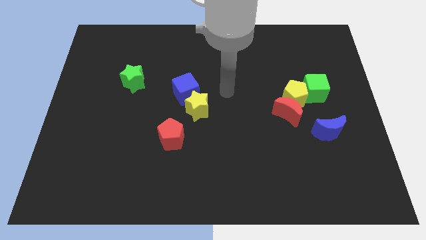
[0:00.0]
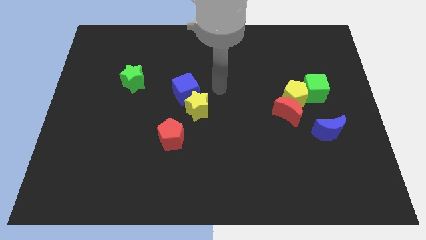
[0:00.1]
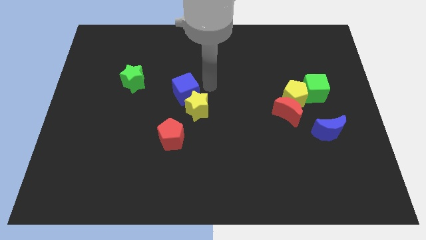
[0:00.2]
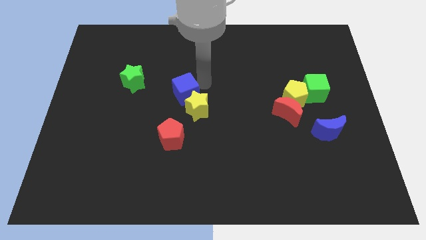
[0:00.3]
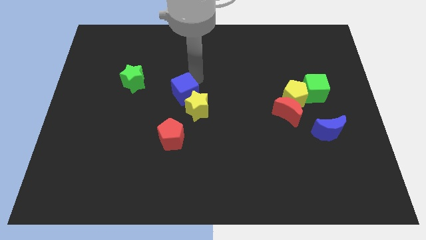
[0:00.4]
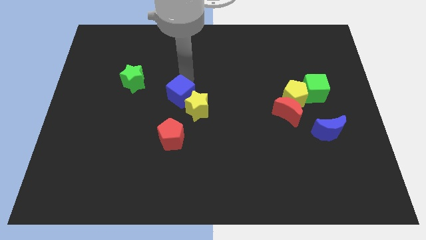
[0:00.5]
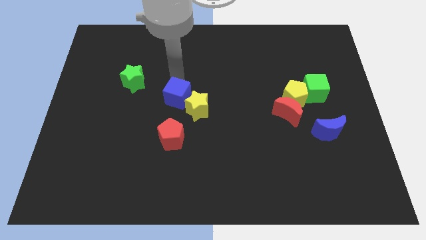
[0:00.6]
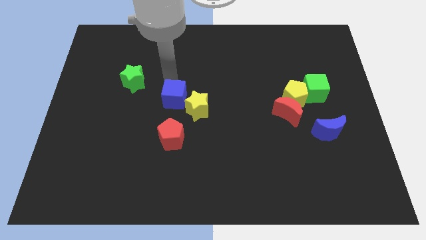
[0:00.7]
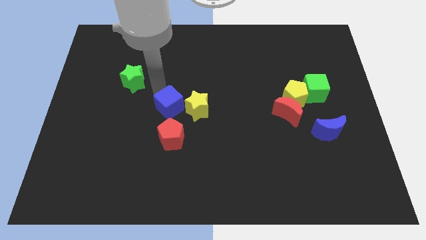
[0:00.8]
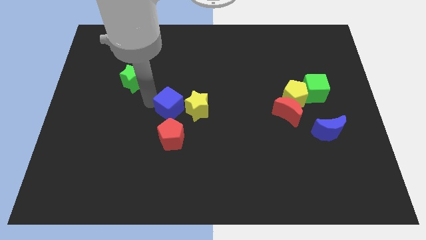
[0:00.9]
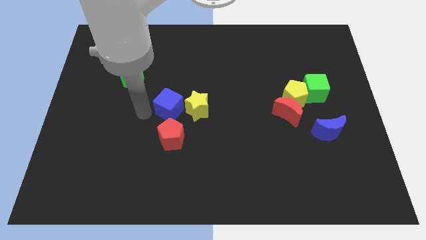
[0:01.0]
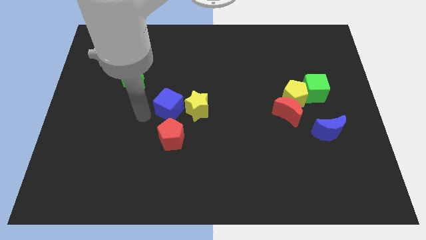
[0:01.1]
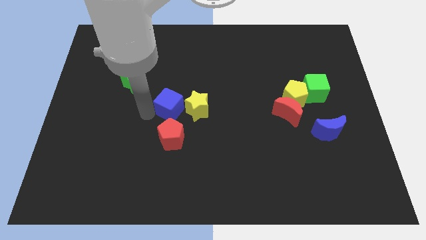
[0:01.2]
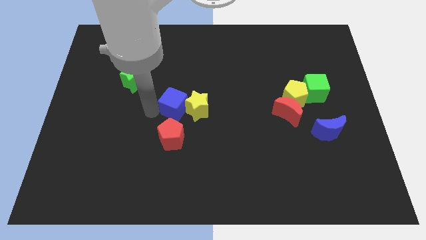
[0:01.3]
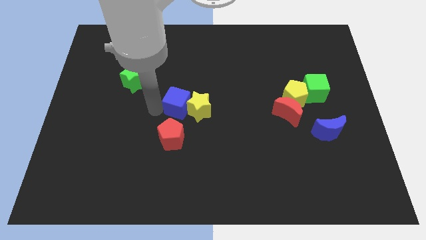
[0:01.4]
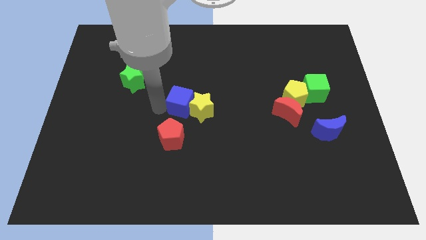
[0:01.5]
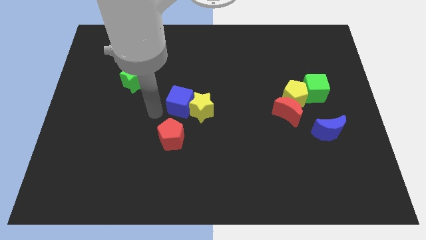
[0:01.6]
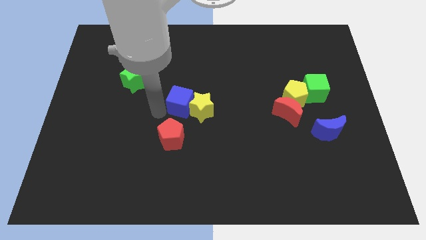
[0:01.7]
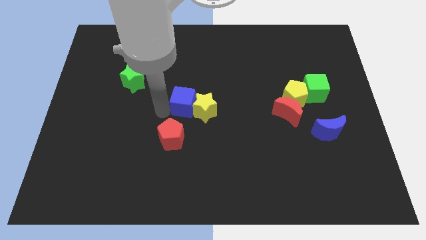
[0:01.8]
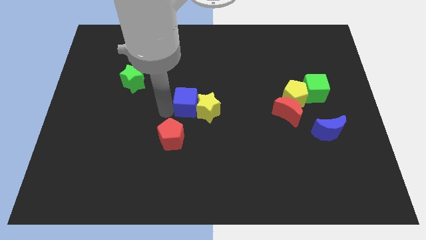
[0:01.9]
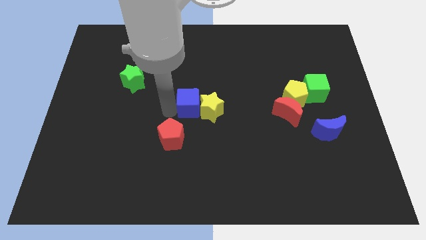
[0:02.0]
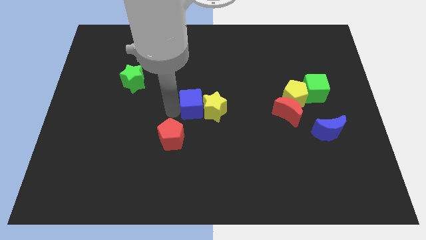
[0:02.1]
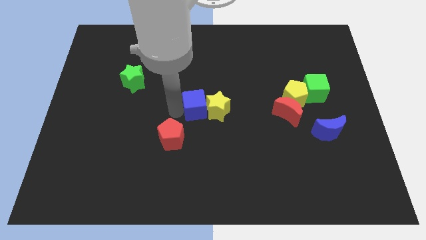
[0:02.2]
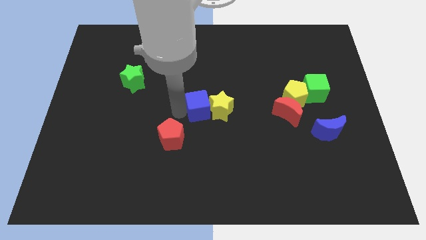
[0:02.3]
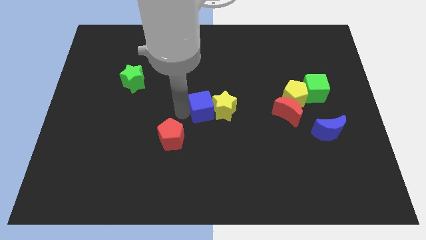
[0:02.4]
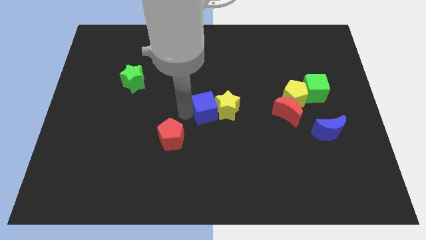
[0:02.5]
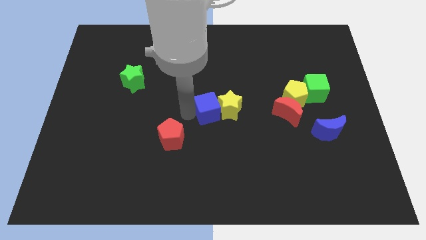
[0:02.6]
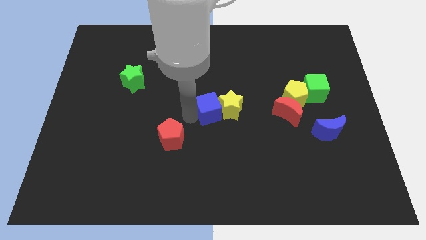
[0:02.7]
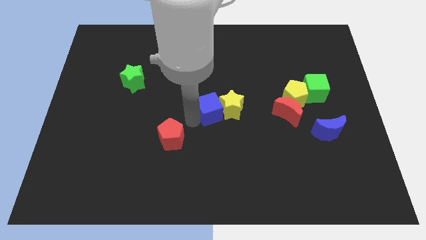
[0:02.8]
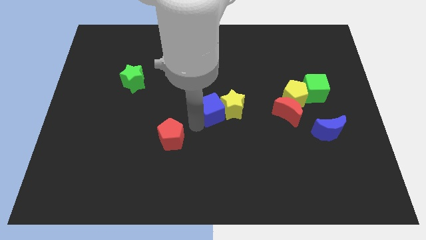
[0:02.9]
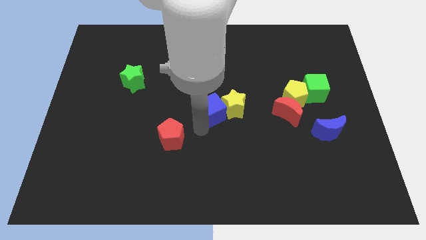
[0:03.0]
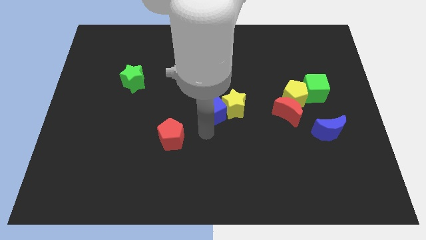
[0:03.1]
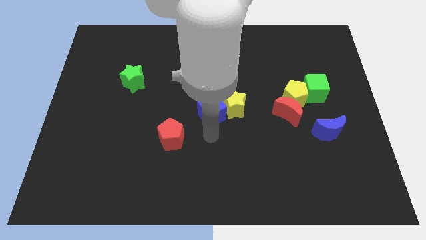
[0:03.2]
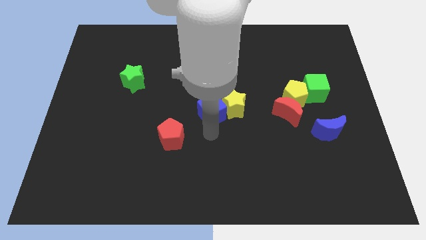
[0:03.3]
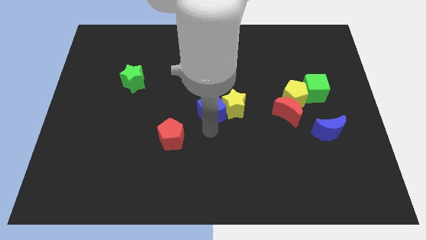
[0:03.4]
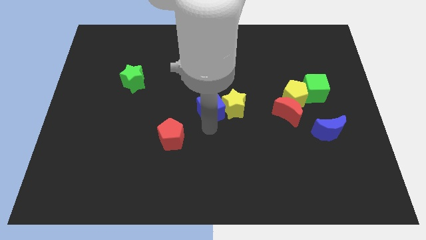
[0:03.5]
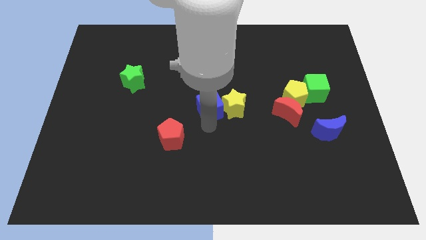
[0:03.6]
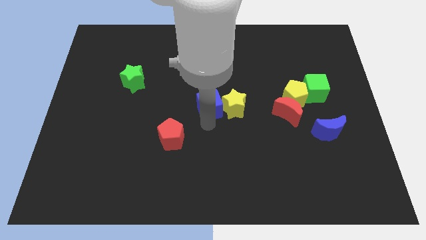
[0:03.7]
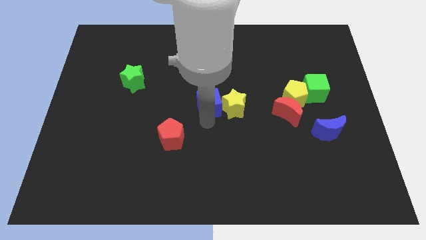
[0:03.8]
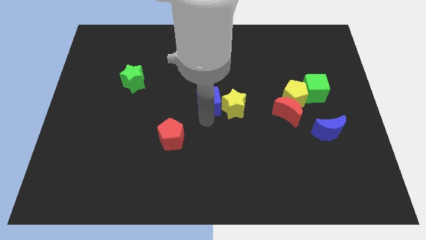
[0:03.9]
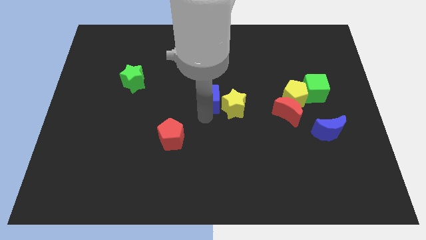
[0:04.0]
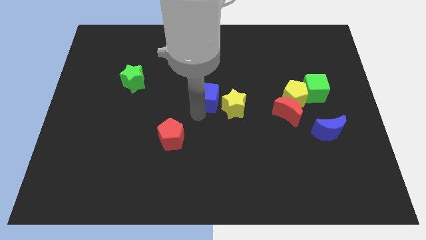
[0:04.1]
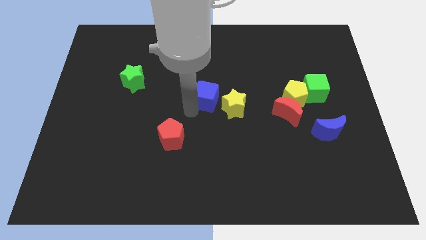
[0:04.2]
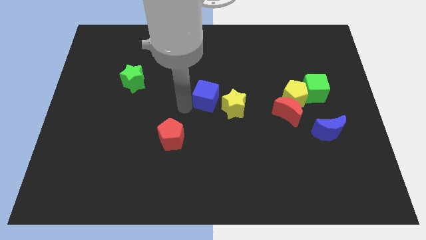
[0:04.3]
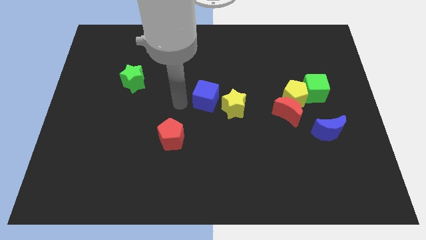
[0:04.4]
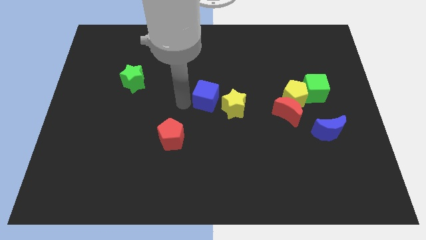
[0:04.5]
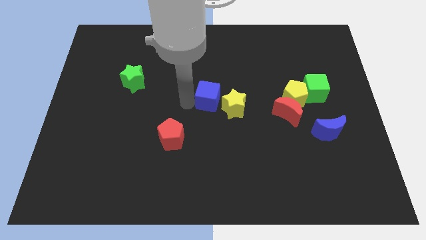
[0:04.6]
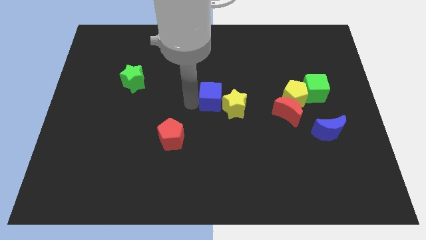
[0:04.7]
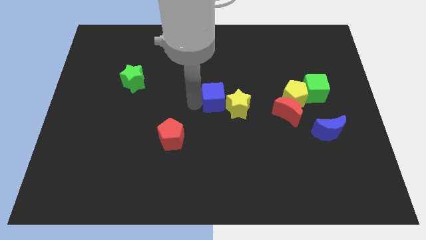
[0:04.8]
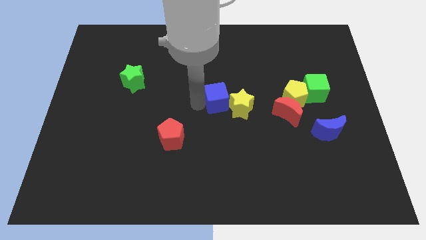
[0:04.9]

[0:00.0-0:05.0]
slightly push the blue cube right

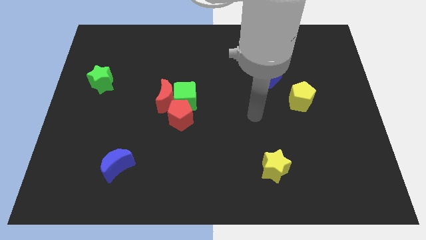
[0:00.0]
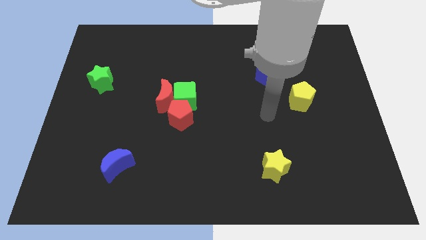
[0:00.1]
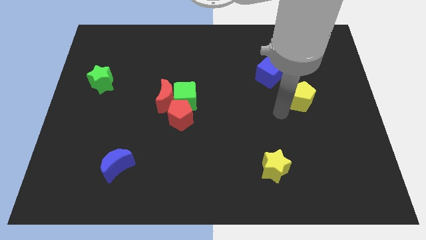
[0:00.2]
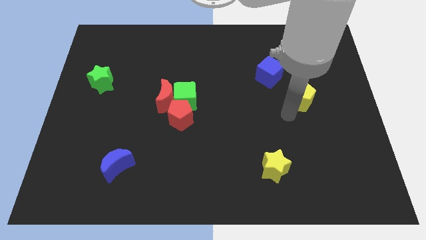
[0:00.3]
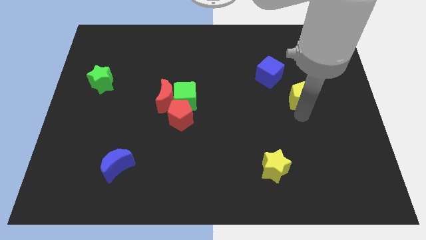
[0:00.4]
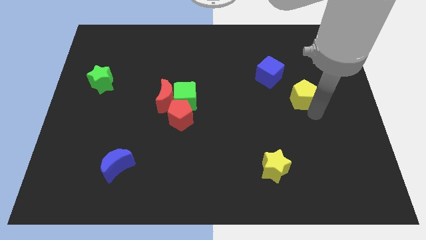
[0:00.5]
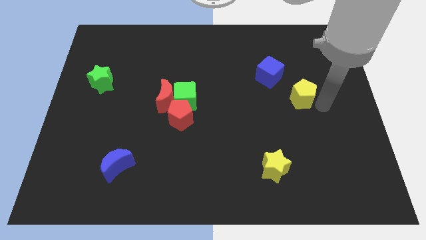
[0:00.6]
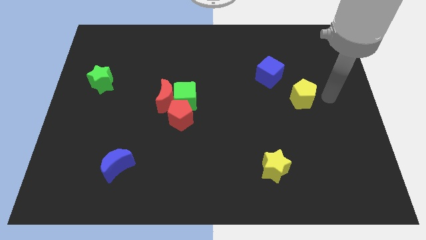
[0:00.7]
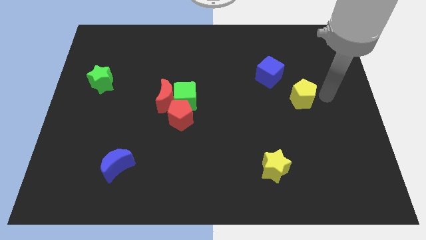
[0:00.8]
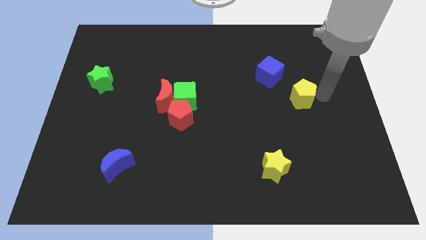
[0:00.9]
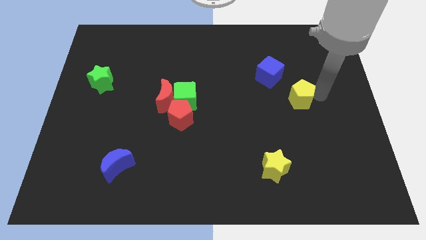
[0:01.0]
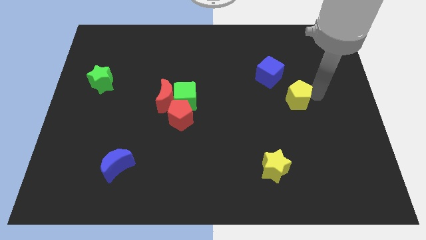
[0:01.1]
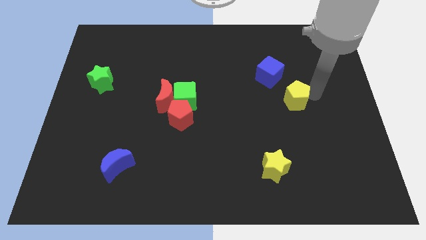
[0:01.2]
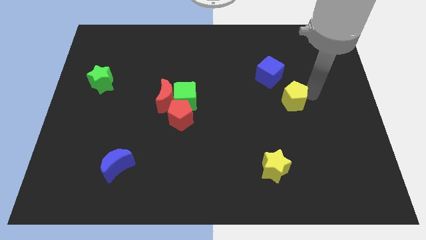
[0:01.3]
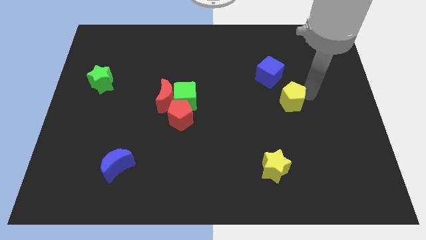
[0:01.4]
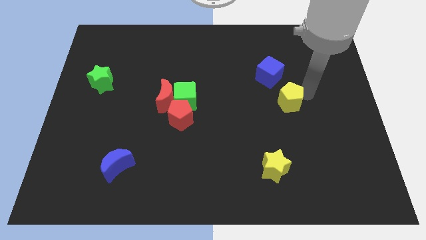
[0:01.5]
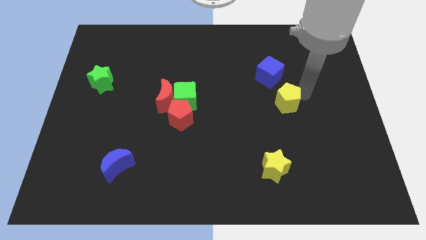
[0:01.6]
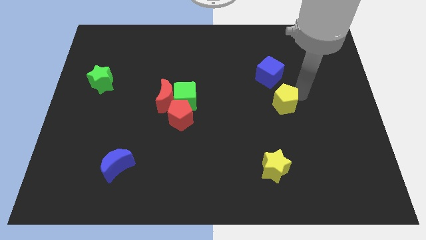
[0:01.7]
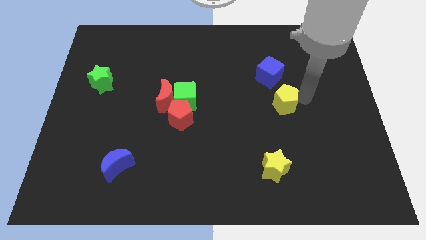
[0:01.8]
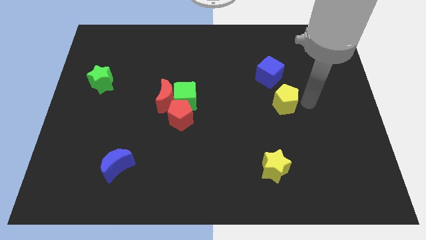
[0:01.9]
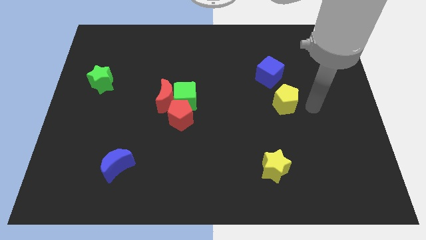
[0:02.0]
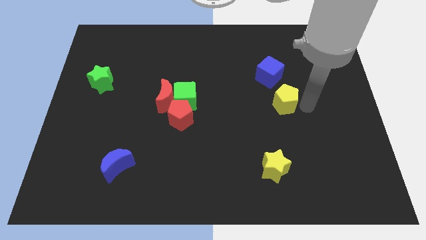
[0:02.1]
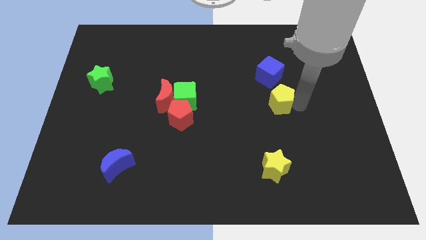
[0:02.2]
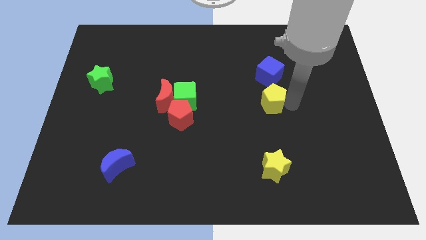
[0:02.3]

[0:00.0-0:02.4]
push the yellow pentagon a bit left

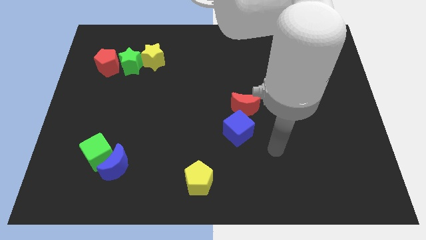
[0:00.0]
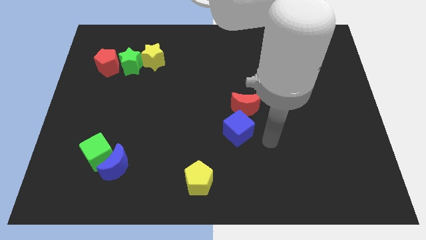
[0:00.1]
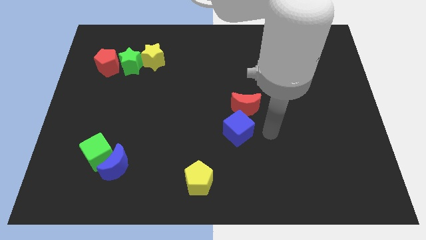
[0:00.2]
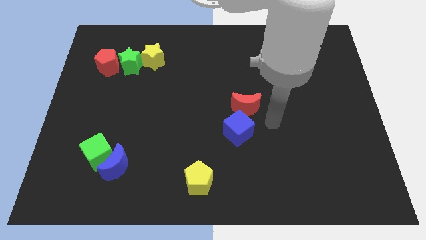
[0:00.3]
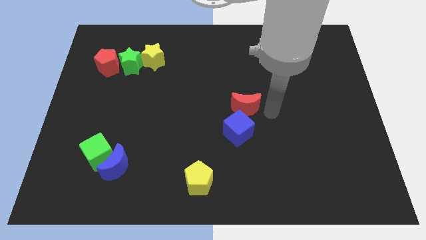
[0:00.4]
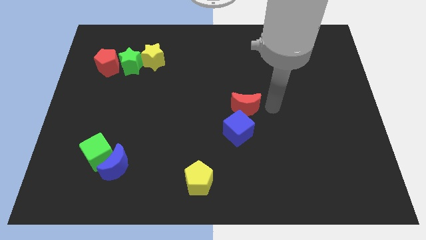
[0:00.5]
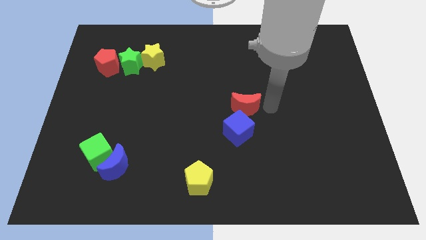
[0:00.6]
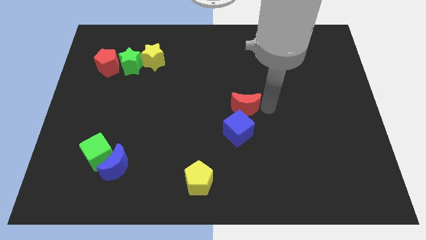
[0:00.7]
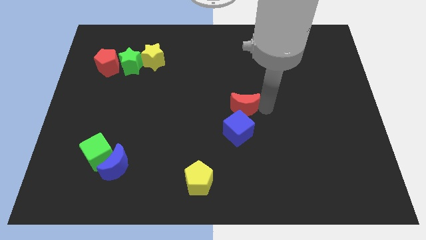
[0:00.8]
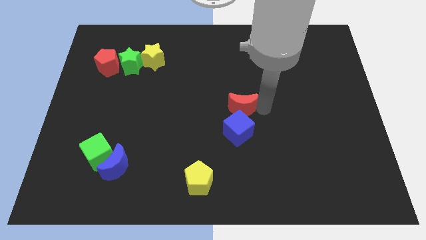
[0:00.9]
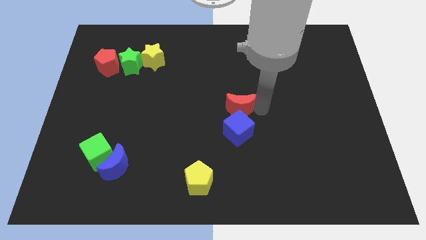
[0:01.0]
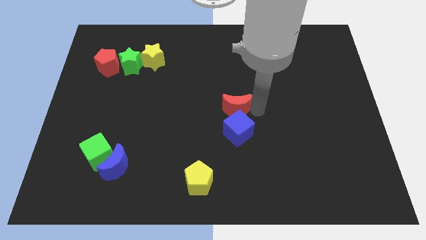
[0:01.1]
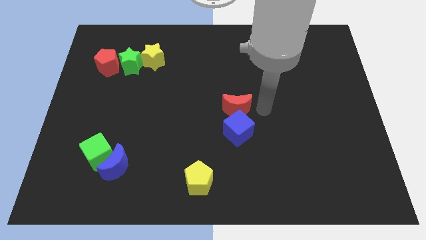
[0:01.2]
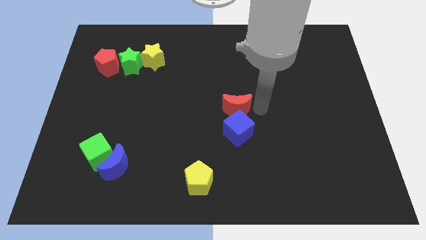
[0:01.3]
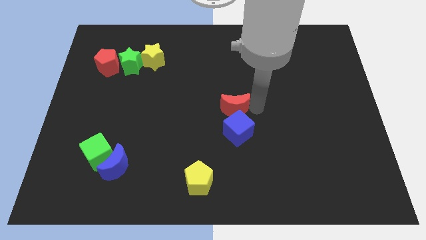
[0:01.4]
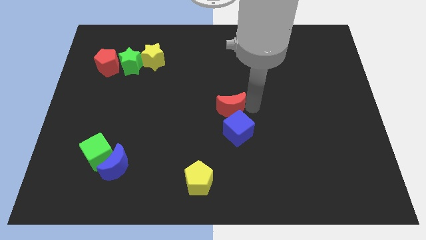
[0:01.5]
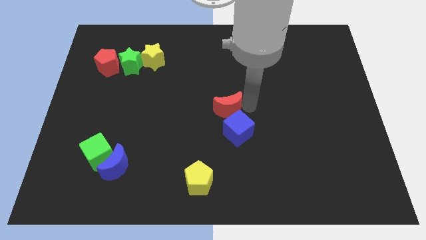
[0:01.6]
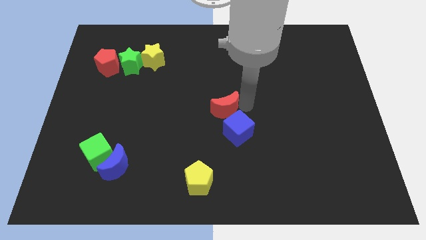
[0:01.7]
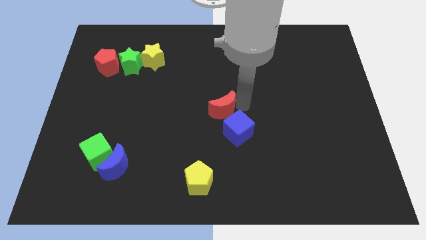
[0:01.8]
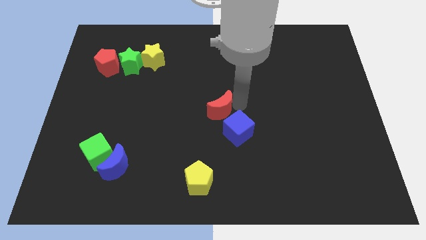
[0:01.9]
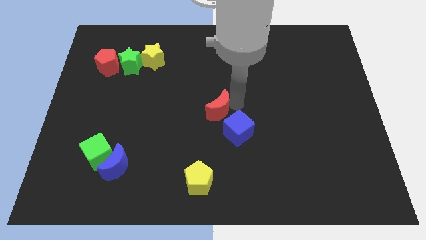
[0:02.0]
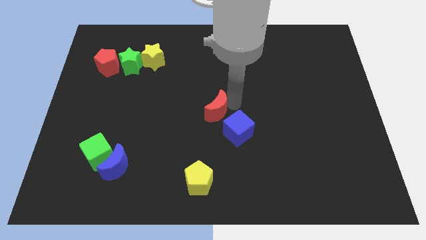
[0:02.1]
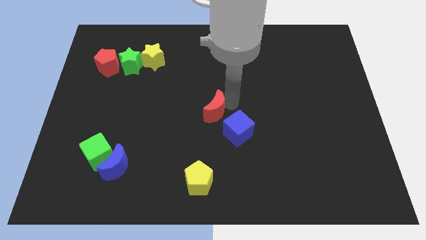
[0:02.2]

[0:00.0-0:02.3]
push the red moon somewhat to the left
